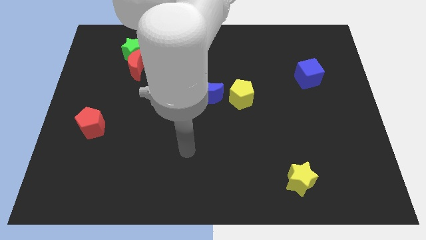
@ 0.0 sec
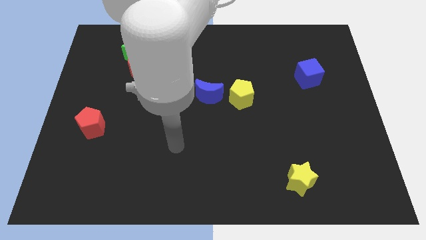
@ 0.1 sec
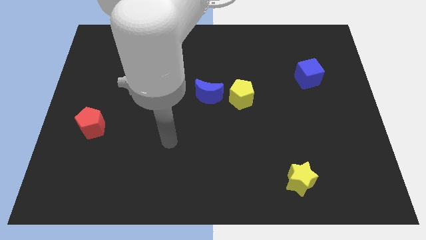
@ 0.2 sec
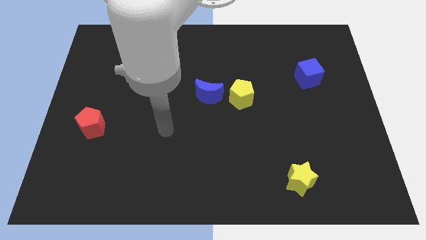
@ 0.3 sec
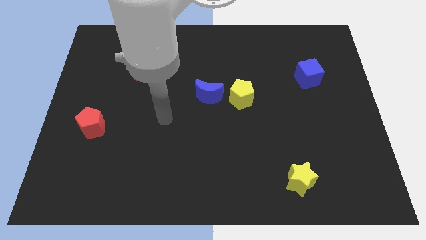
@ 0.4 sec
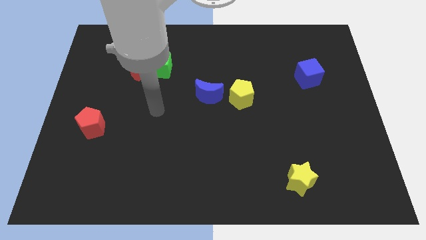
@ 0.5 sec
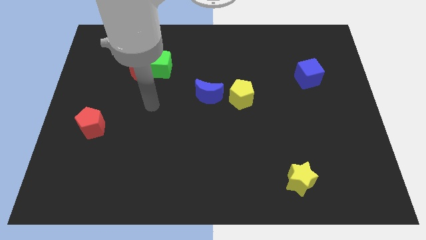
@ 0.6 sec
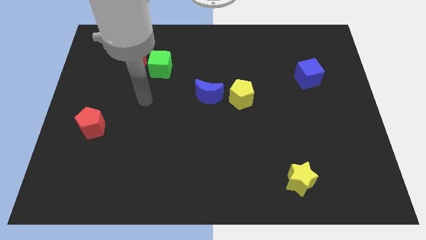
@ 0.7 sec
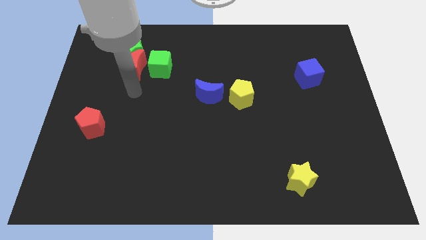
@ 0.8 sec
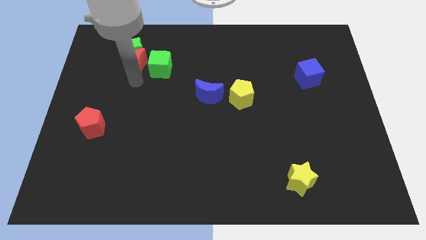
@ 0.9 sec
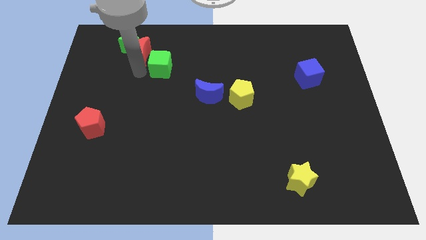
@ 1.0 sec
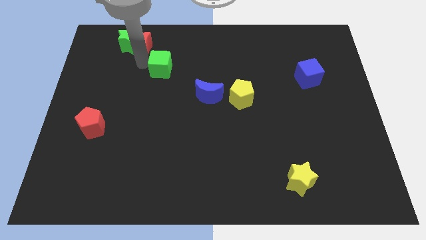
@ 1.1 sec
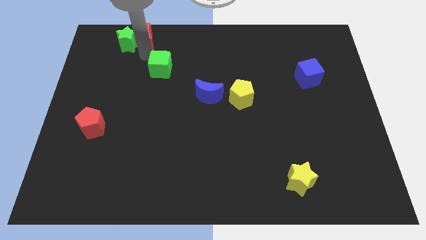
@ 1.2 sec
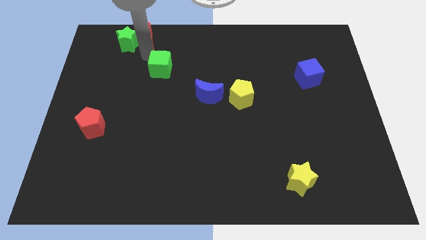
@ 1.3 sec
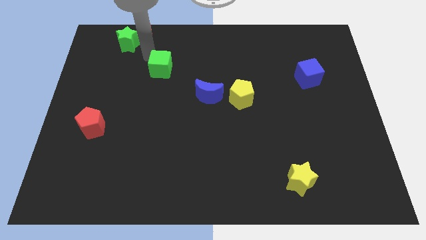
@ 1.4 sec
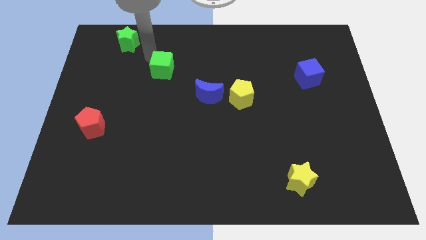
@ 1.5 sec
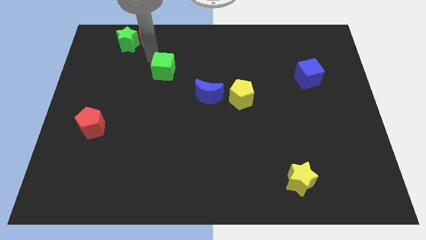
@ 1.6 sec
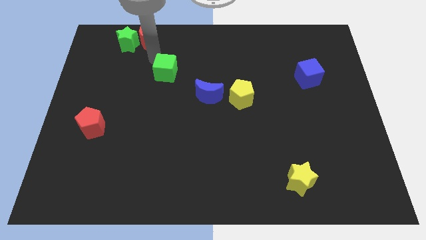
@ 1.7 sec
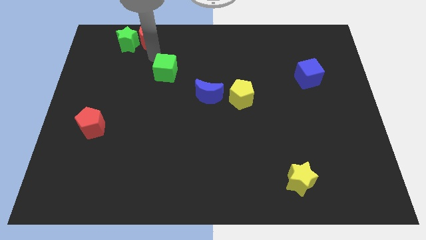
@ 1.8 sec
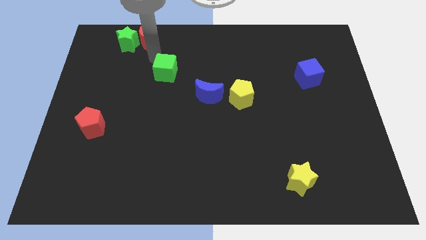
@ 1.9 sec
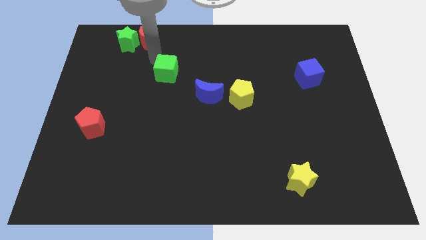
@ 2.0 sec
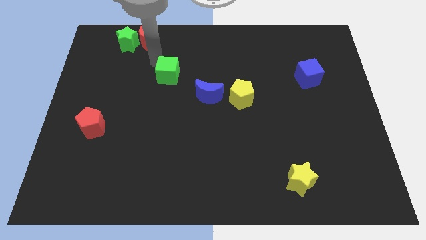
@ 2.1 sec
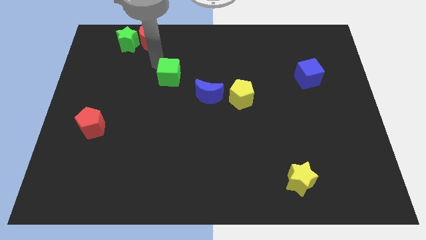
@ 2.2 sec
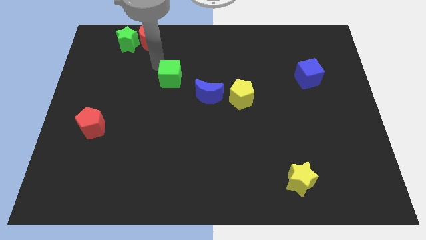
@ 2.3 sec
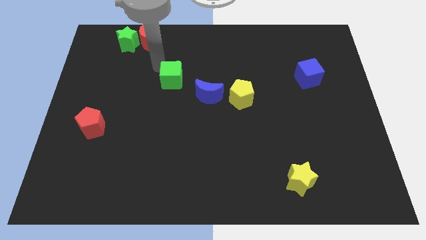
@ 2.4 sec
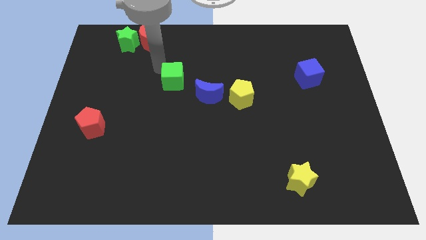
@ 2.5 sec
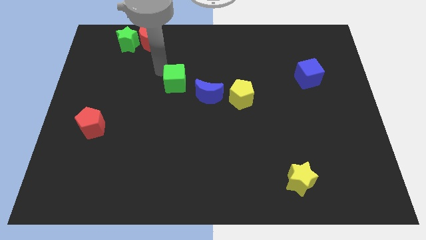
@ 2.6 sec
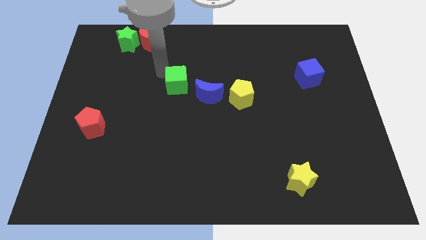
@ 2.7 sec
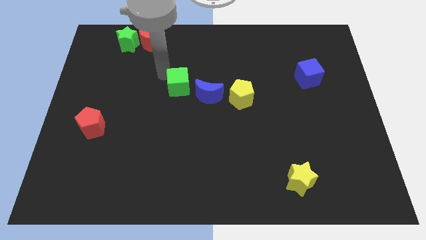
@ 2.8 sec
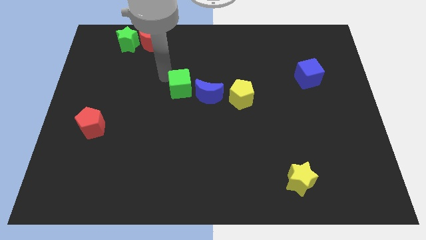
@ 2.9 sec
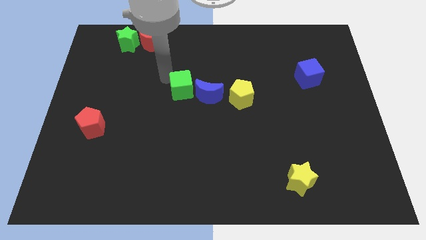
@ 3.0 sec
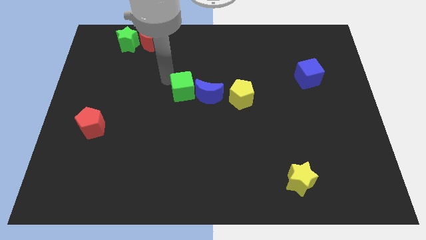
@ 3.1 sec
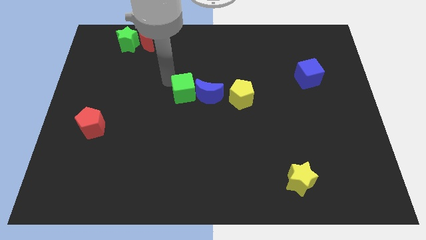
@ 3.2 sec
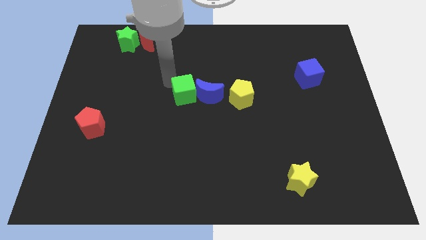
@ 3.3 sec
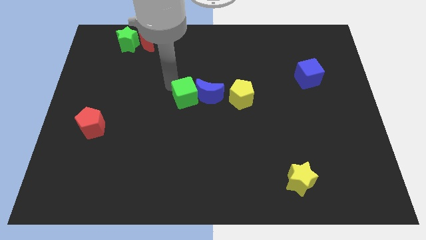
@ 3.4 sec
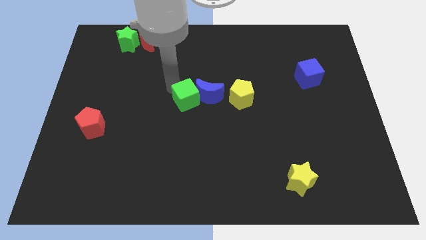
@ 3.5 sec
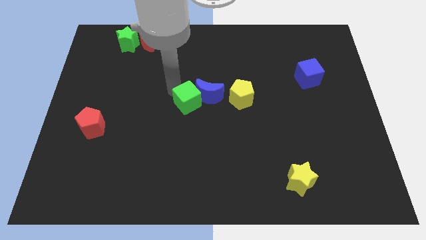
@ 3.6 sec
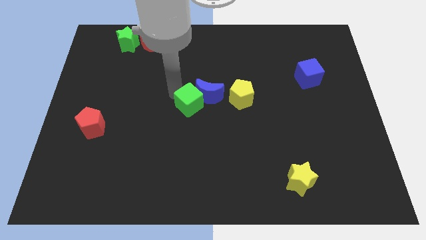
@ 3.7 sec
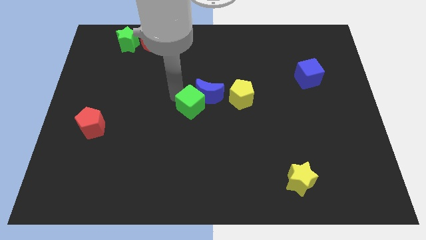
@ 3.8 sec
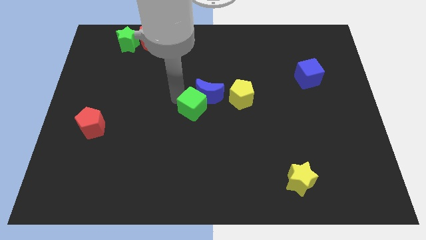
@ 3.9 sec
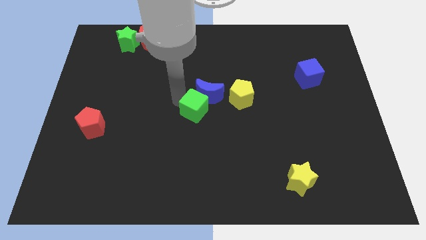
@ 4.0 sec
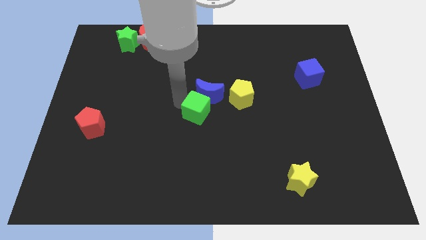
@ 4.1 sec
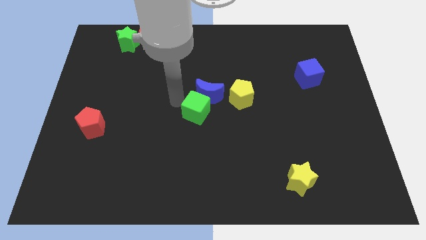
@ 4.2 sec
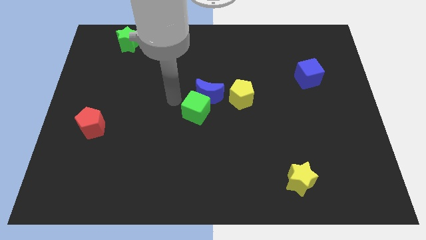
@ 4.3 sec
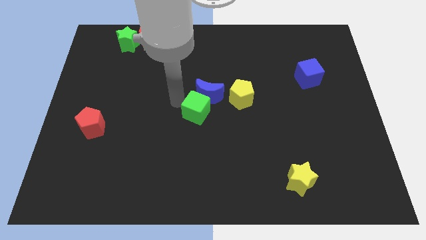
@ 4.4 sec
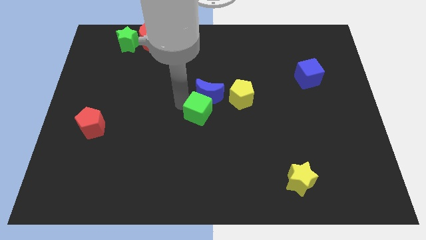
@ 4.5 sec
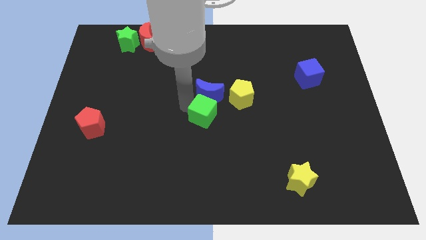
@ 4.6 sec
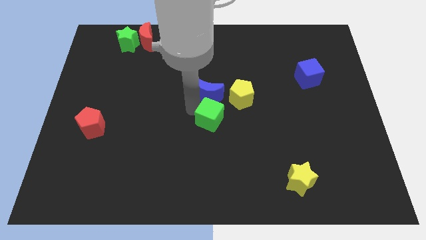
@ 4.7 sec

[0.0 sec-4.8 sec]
slide the green cube down and then right

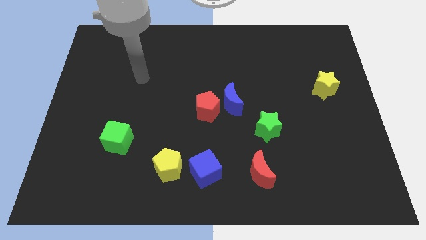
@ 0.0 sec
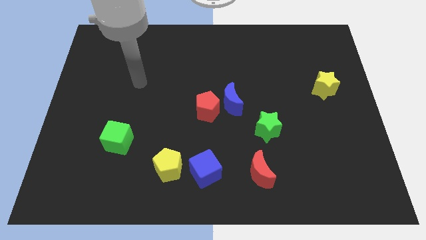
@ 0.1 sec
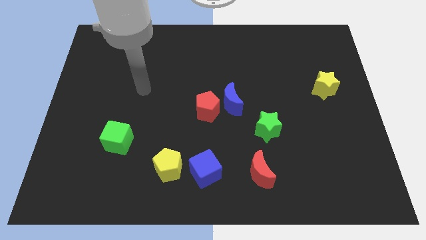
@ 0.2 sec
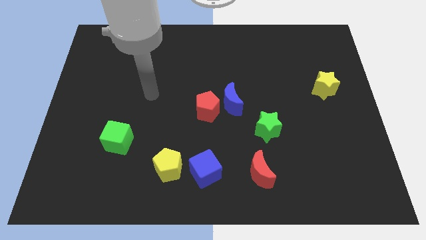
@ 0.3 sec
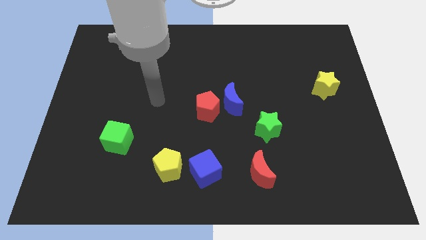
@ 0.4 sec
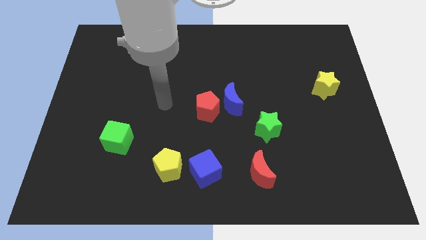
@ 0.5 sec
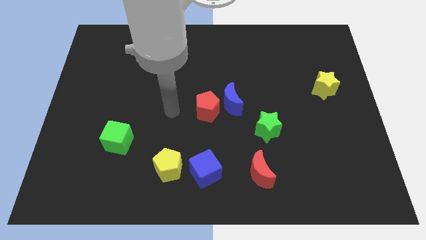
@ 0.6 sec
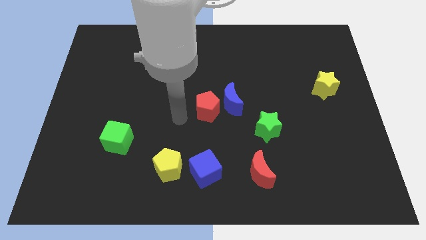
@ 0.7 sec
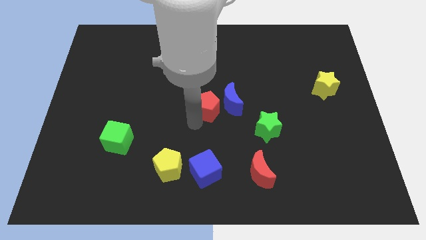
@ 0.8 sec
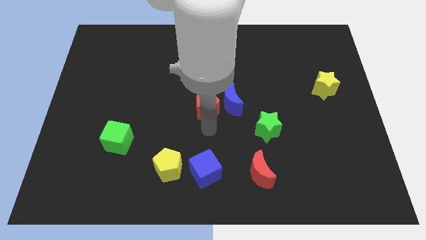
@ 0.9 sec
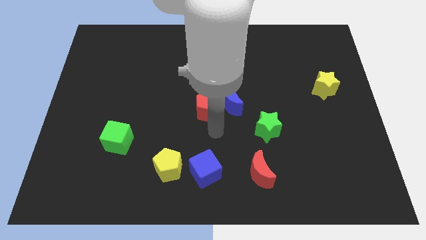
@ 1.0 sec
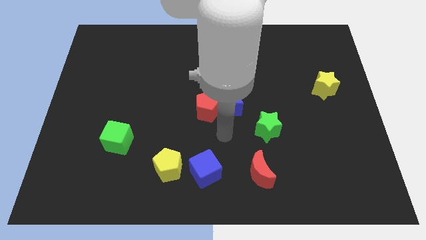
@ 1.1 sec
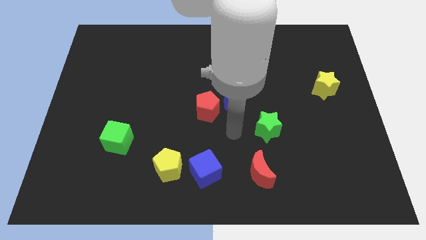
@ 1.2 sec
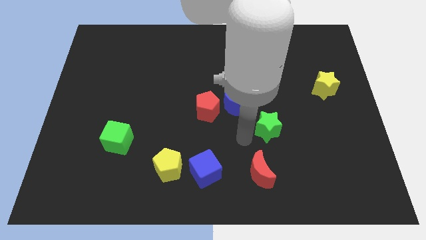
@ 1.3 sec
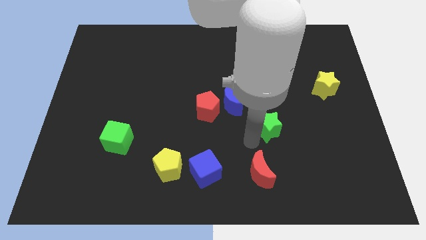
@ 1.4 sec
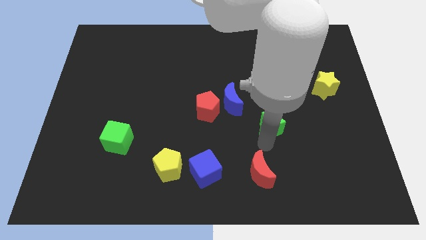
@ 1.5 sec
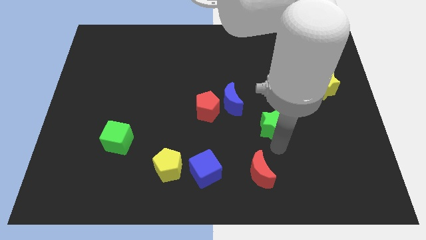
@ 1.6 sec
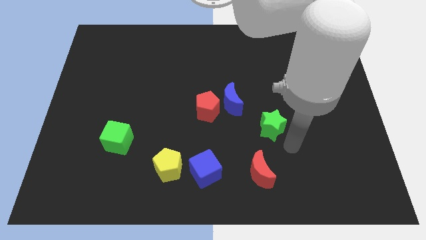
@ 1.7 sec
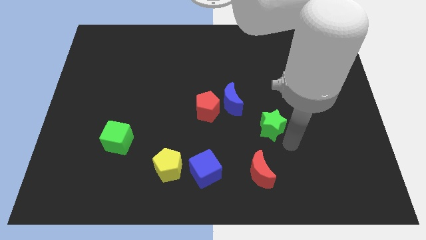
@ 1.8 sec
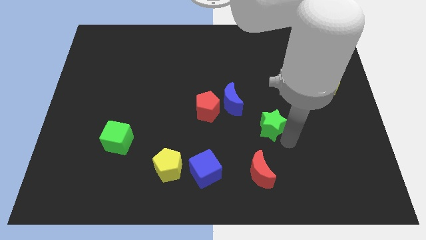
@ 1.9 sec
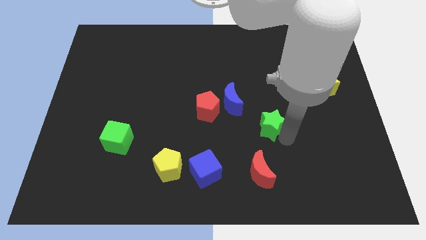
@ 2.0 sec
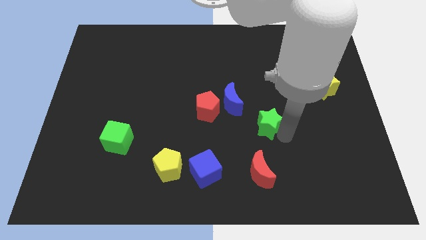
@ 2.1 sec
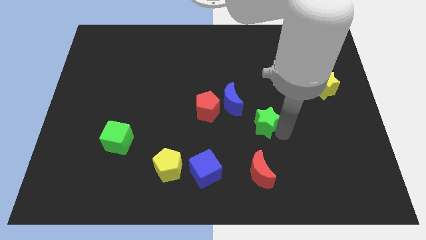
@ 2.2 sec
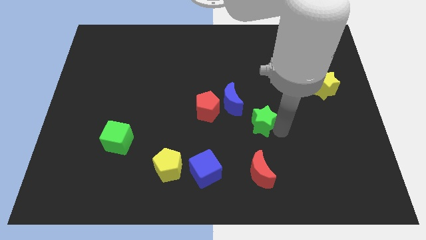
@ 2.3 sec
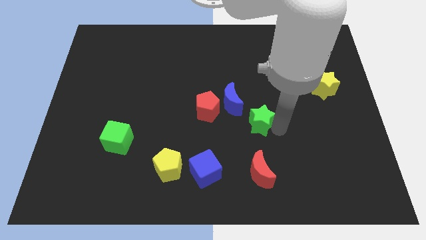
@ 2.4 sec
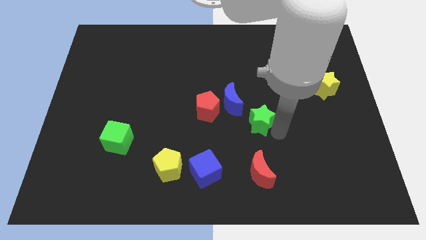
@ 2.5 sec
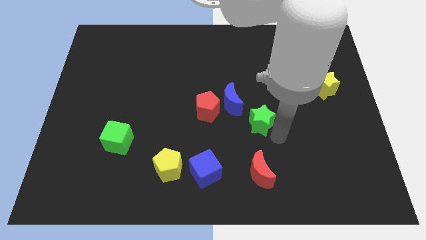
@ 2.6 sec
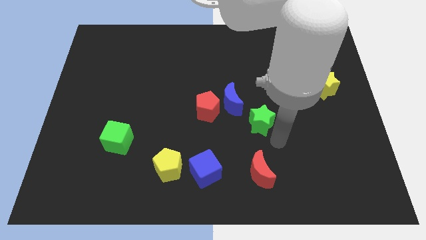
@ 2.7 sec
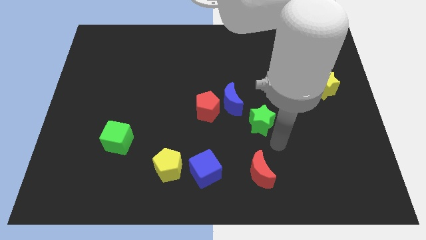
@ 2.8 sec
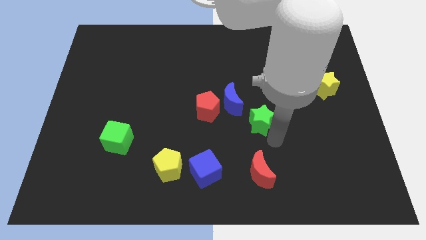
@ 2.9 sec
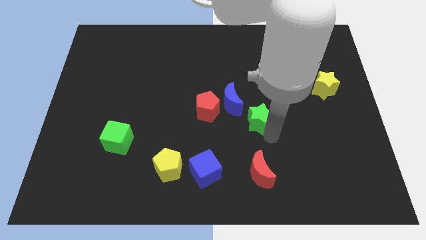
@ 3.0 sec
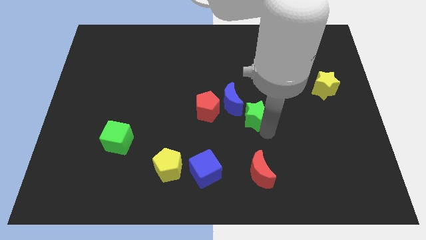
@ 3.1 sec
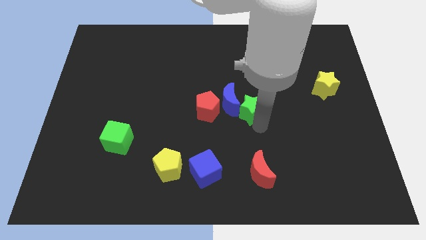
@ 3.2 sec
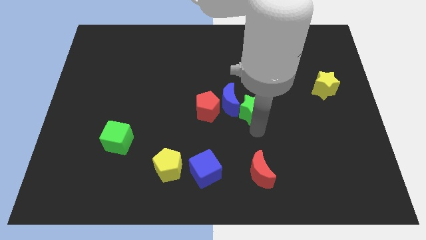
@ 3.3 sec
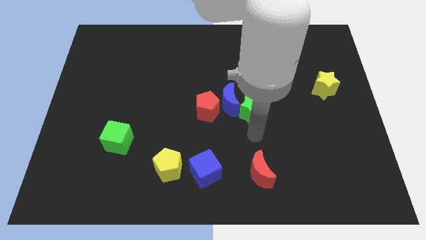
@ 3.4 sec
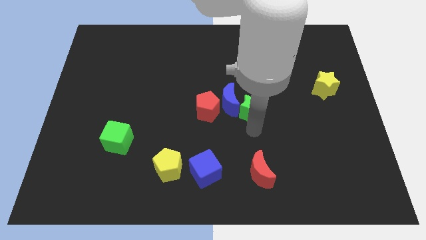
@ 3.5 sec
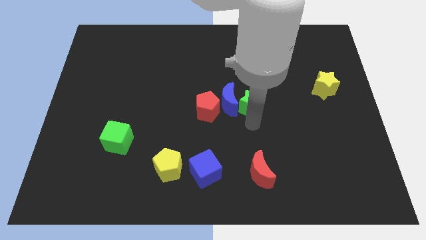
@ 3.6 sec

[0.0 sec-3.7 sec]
move the green star up and to the left slightly
